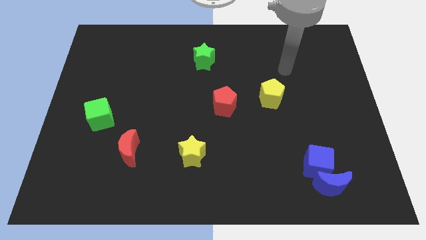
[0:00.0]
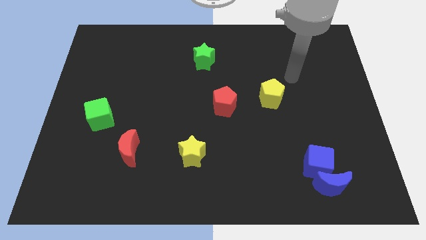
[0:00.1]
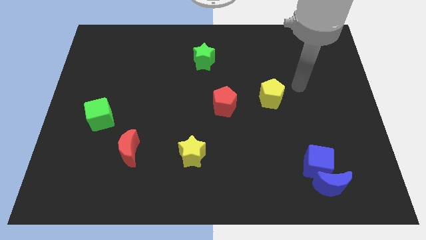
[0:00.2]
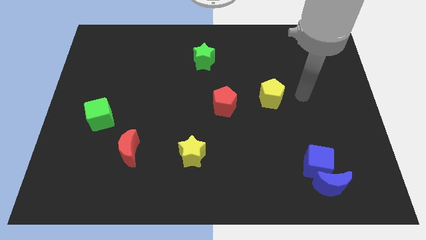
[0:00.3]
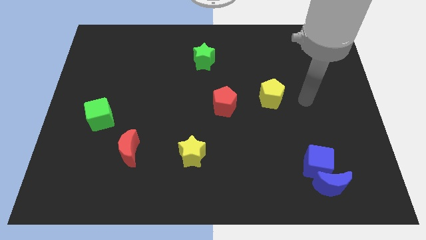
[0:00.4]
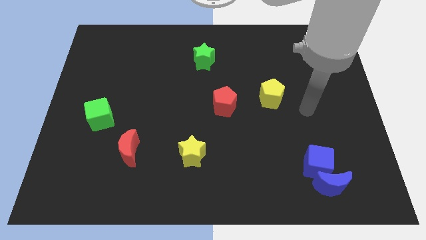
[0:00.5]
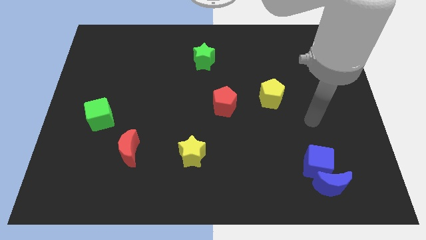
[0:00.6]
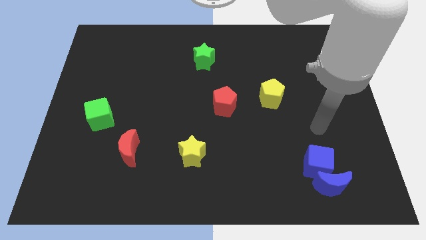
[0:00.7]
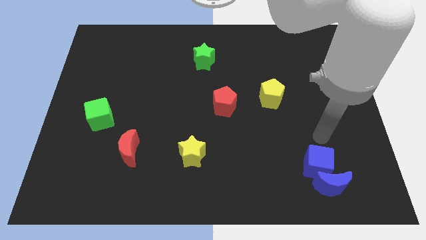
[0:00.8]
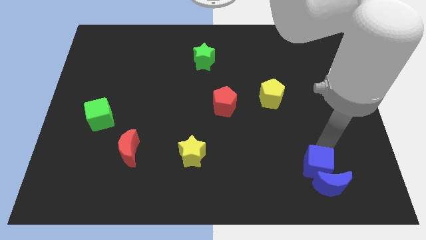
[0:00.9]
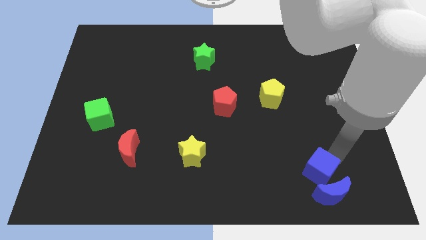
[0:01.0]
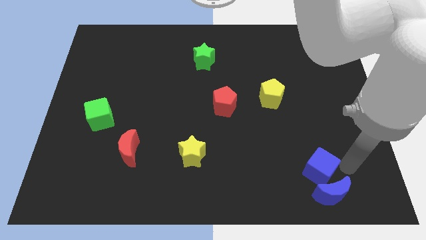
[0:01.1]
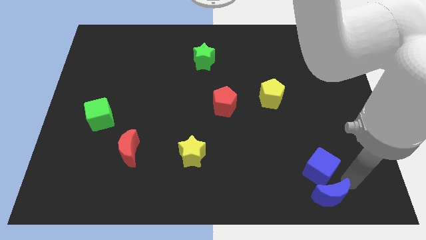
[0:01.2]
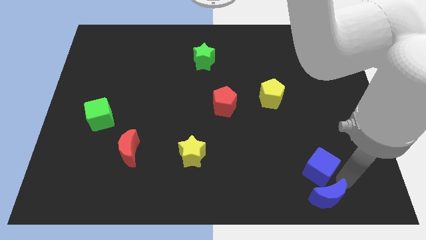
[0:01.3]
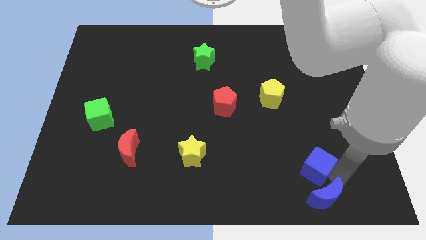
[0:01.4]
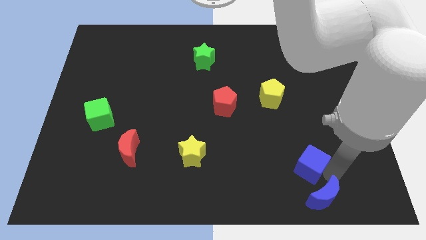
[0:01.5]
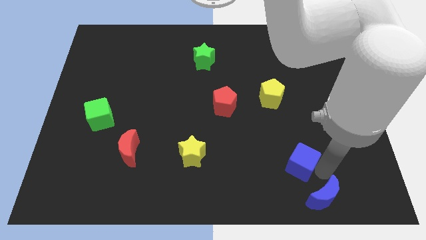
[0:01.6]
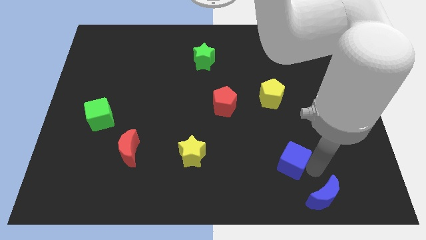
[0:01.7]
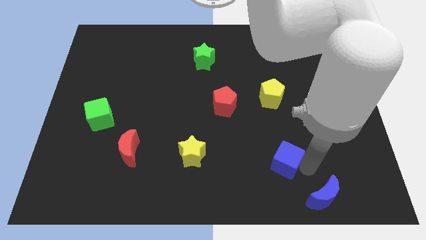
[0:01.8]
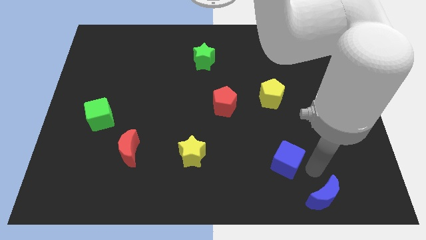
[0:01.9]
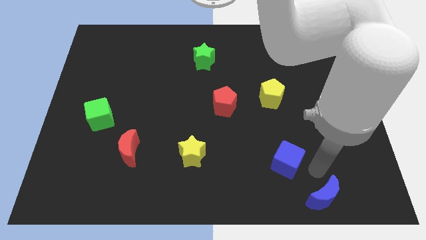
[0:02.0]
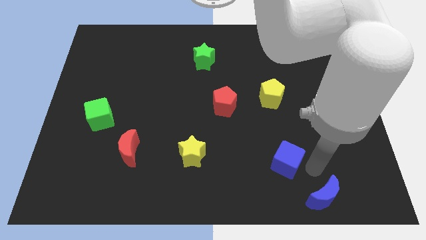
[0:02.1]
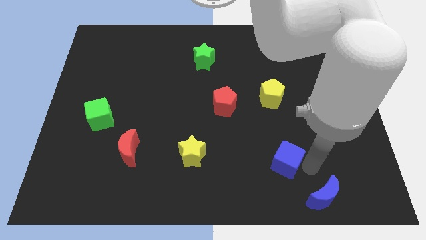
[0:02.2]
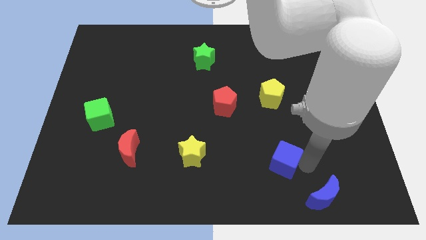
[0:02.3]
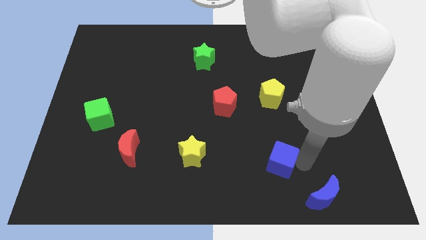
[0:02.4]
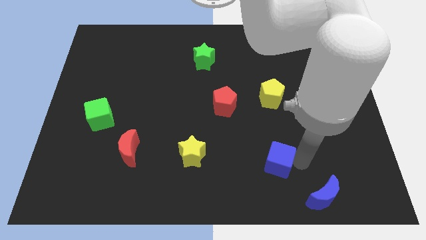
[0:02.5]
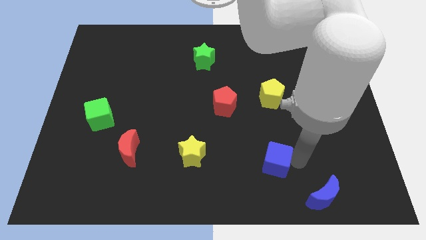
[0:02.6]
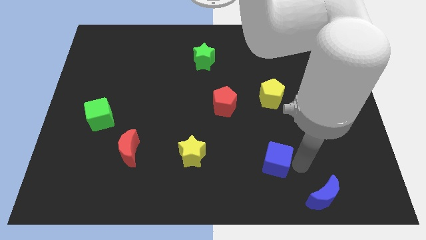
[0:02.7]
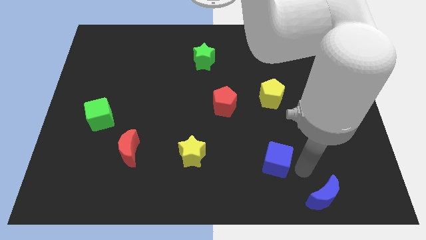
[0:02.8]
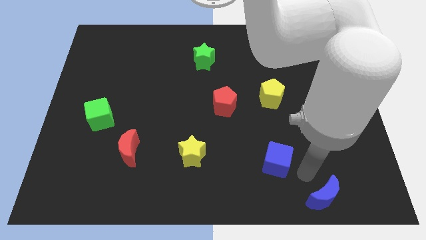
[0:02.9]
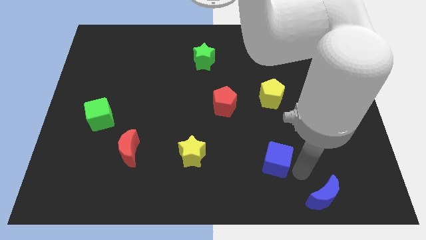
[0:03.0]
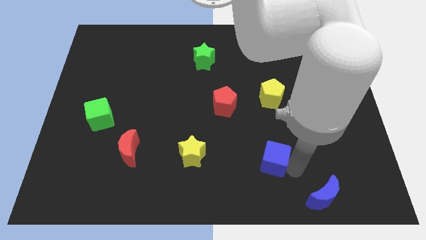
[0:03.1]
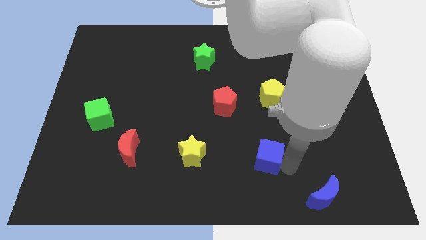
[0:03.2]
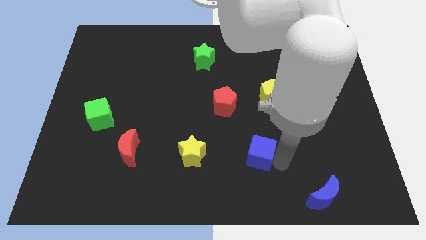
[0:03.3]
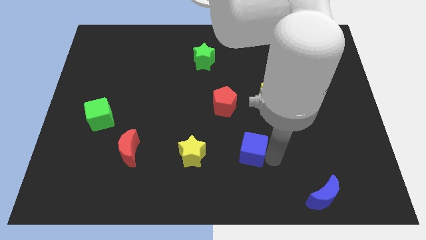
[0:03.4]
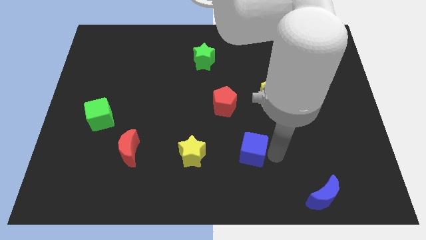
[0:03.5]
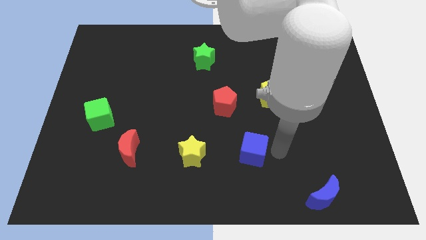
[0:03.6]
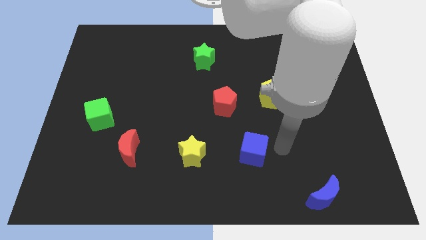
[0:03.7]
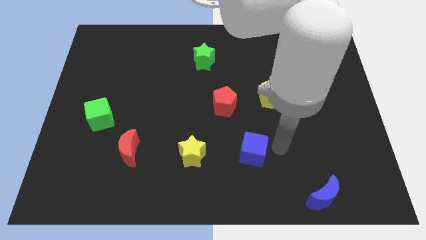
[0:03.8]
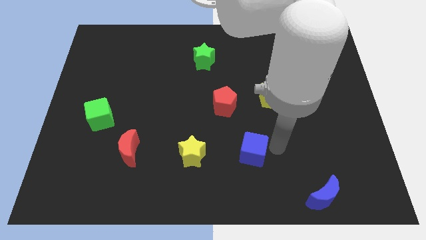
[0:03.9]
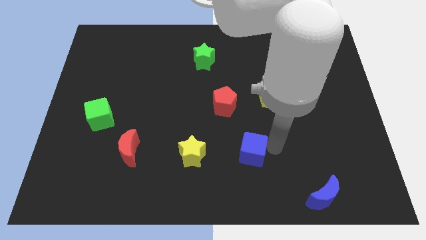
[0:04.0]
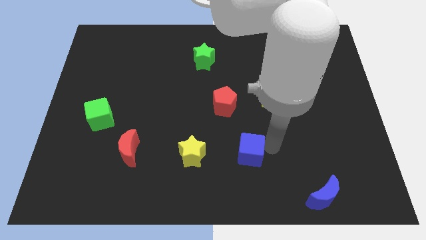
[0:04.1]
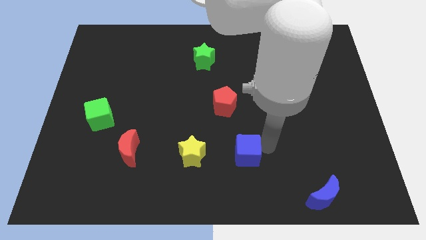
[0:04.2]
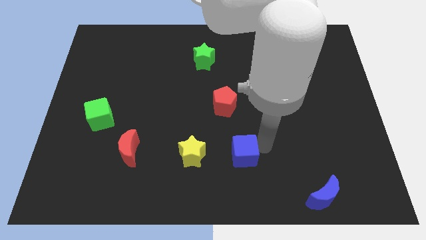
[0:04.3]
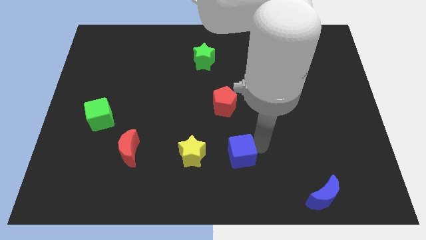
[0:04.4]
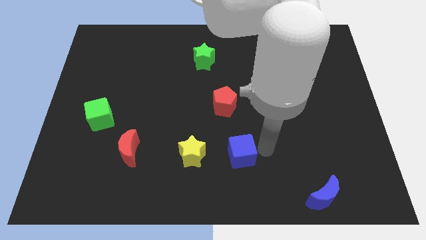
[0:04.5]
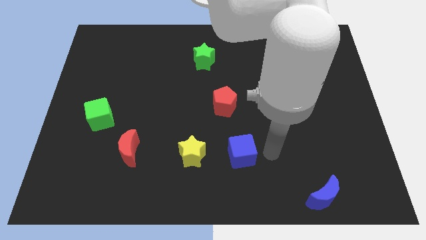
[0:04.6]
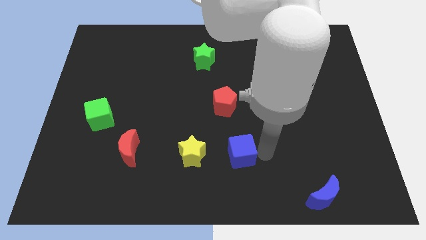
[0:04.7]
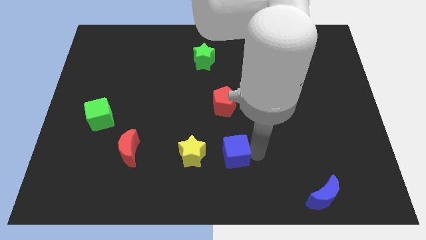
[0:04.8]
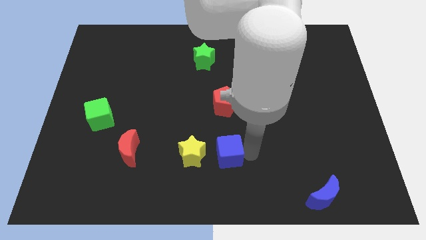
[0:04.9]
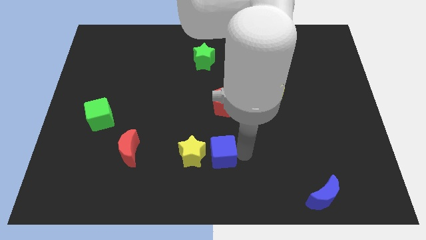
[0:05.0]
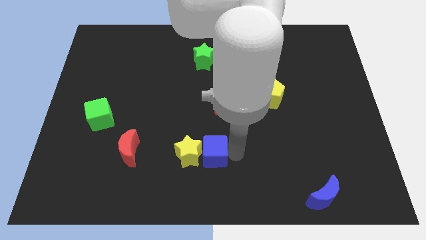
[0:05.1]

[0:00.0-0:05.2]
move the blue cube close to the yellow star

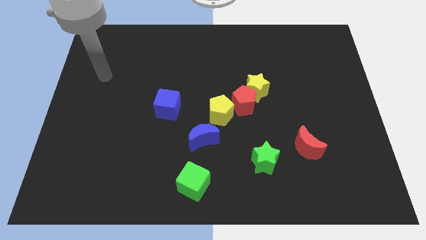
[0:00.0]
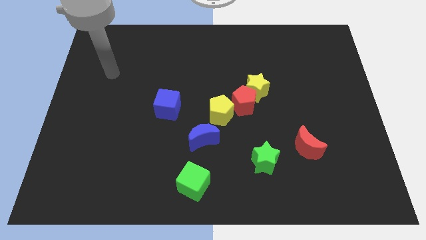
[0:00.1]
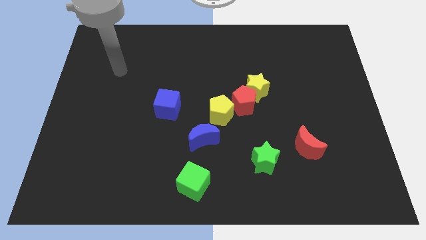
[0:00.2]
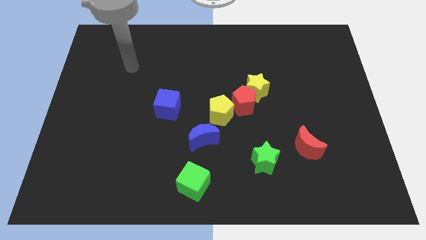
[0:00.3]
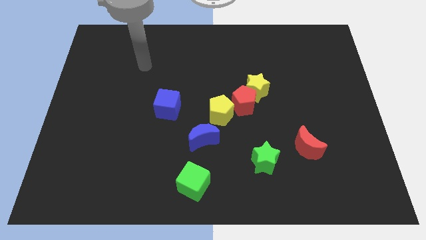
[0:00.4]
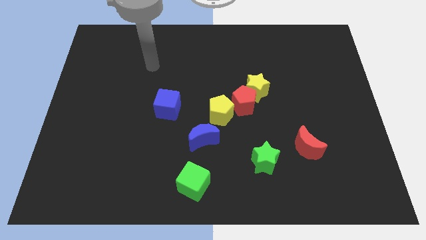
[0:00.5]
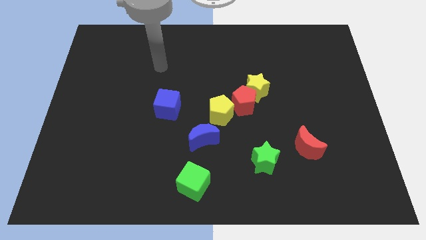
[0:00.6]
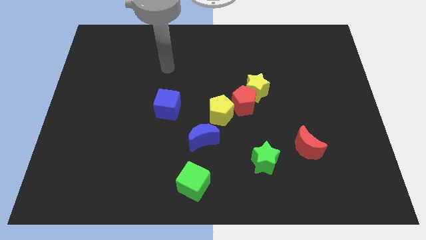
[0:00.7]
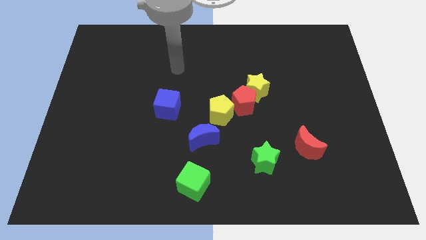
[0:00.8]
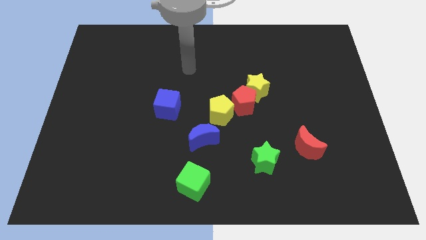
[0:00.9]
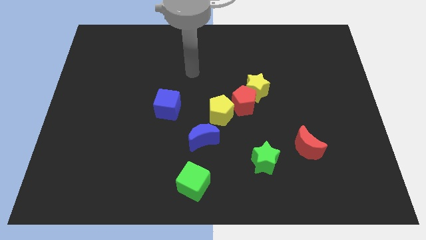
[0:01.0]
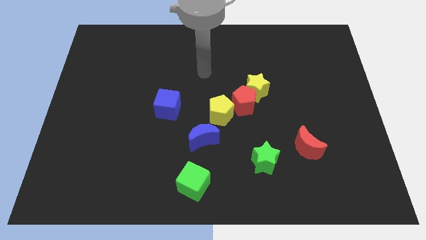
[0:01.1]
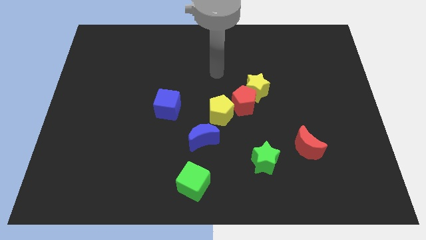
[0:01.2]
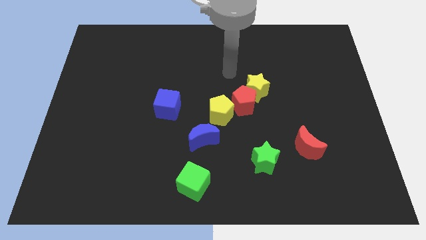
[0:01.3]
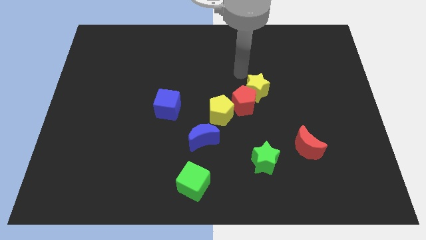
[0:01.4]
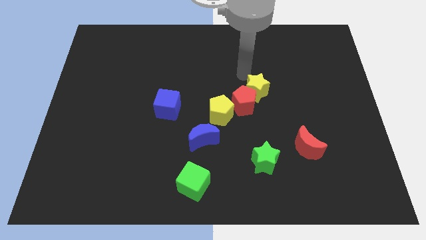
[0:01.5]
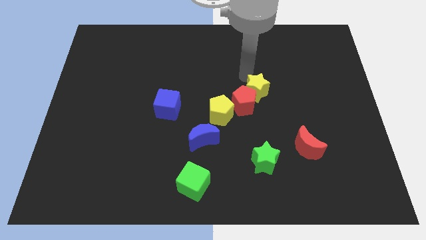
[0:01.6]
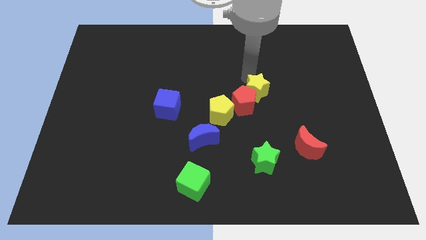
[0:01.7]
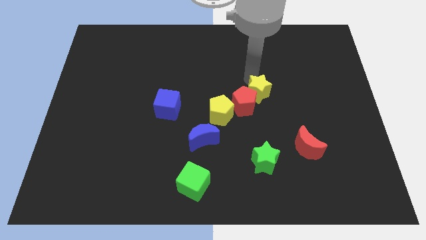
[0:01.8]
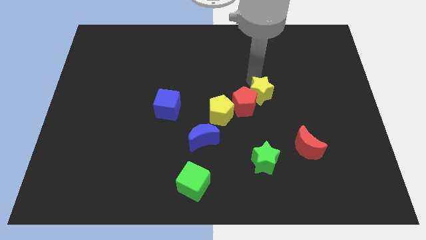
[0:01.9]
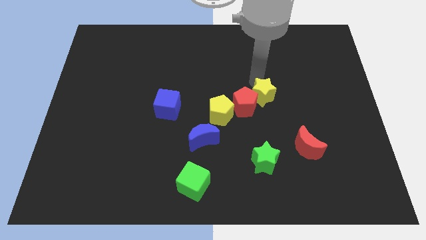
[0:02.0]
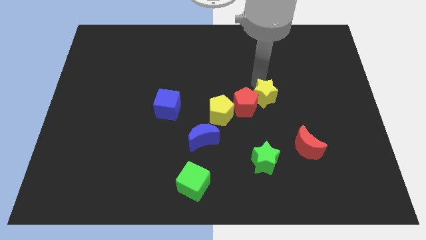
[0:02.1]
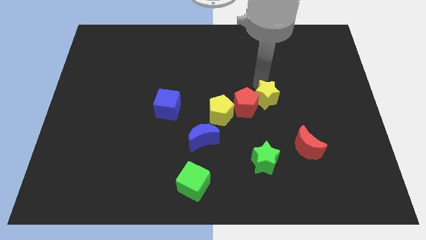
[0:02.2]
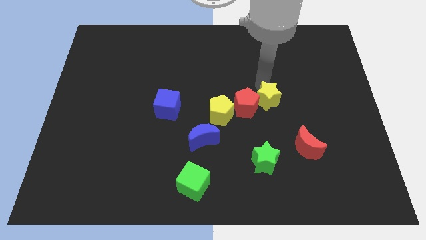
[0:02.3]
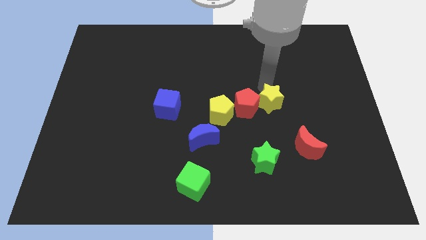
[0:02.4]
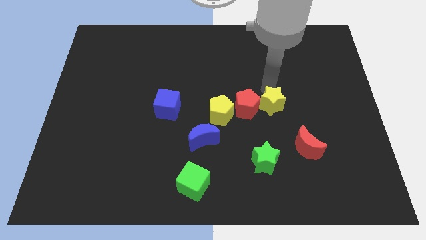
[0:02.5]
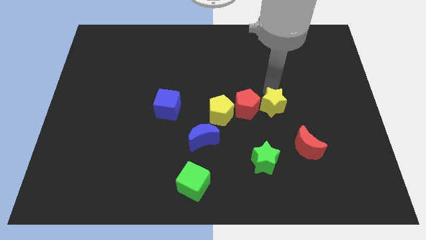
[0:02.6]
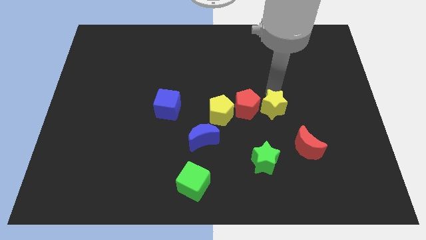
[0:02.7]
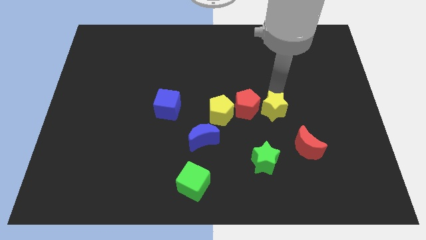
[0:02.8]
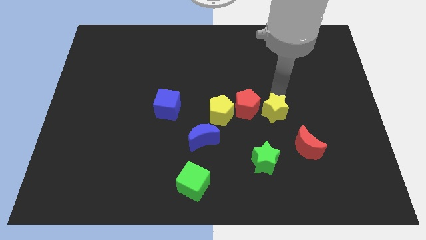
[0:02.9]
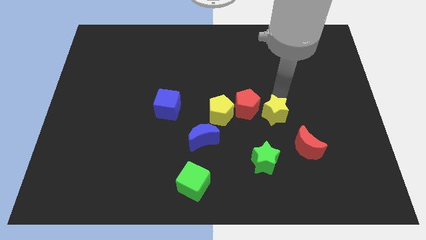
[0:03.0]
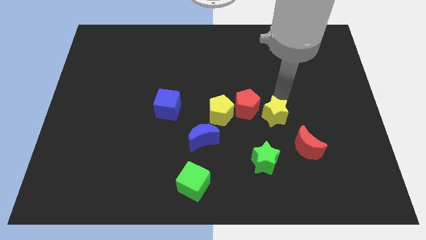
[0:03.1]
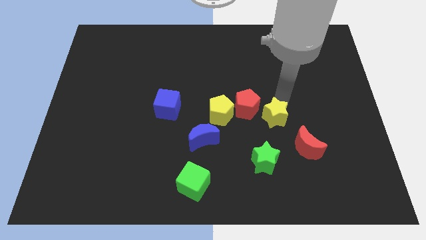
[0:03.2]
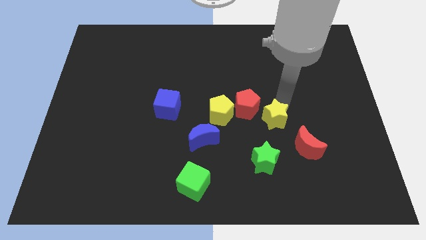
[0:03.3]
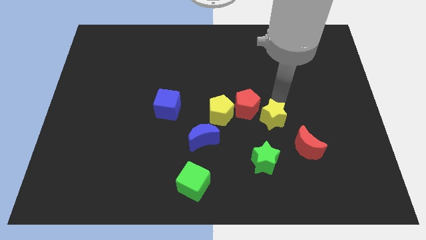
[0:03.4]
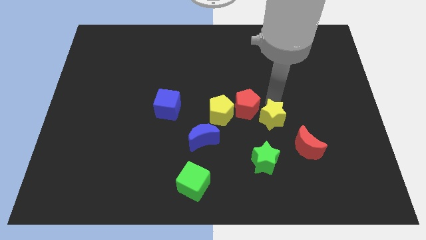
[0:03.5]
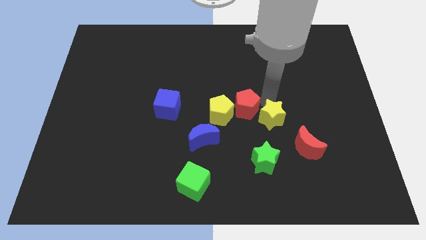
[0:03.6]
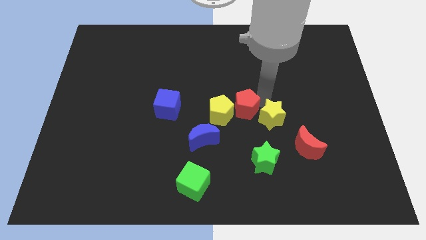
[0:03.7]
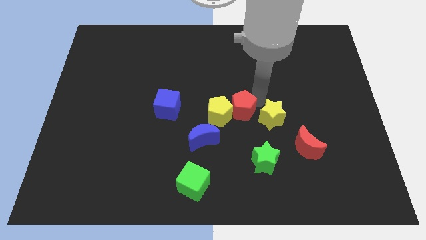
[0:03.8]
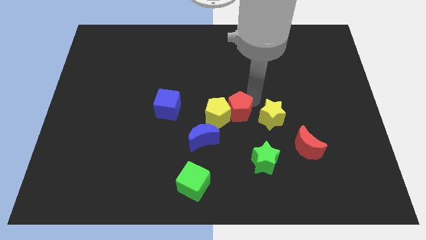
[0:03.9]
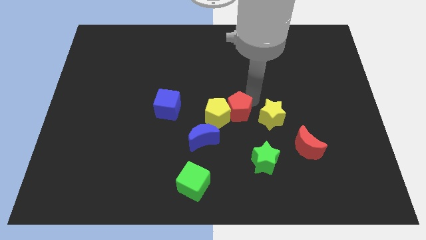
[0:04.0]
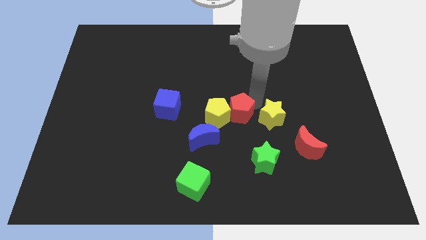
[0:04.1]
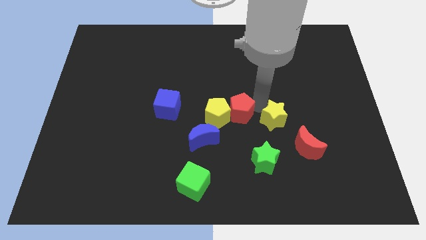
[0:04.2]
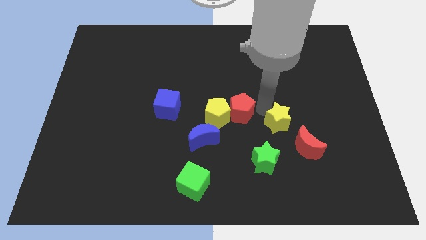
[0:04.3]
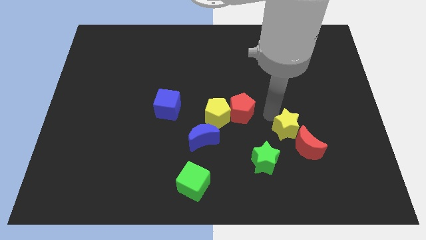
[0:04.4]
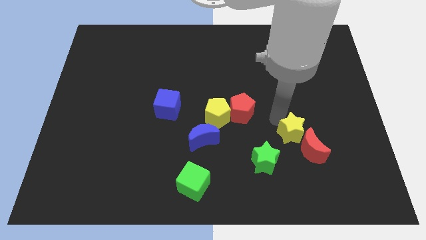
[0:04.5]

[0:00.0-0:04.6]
push the yellow star close to the red moon
